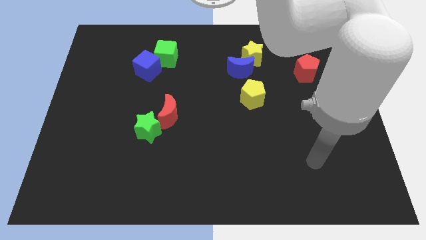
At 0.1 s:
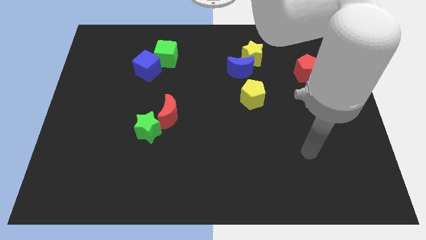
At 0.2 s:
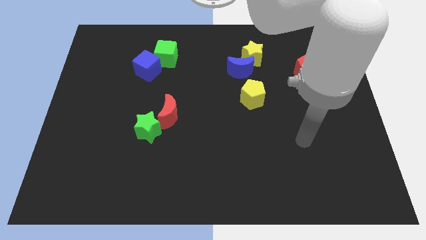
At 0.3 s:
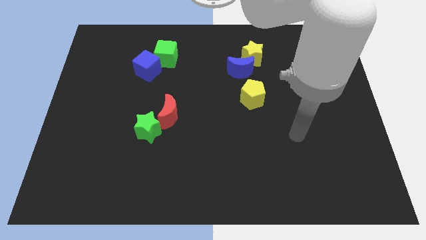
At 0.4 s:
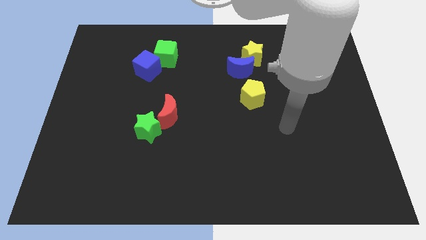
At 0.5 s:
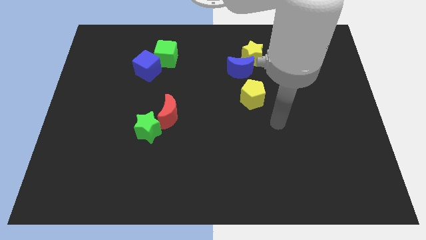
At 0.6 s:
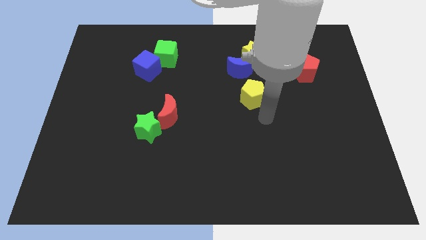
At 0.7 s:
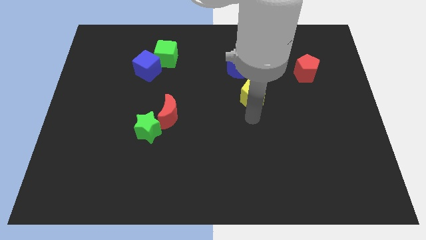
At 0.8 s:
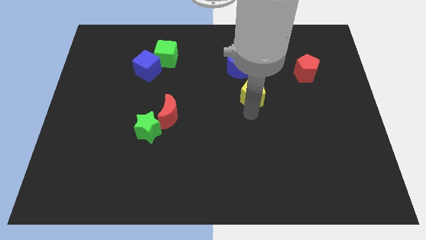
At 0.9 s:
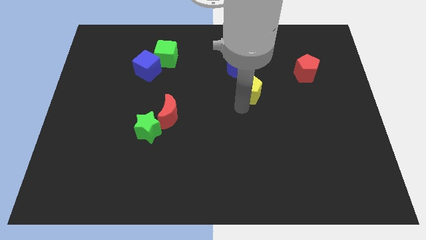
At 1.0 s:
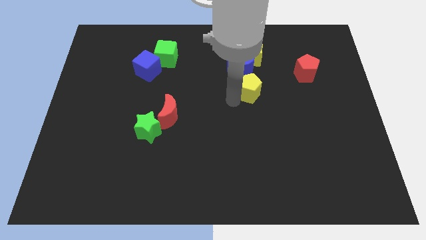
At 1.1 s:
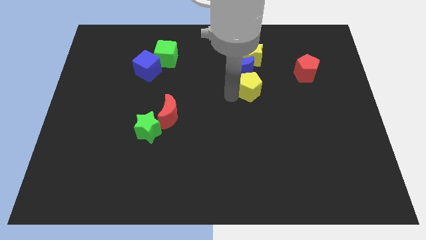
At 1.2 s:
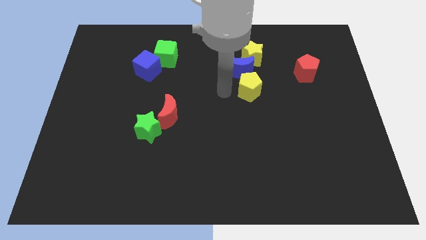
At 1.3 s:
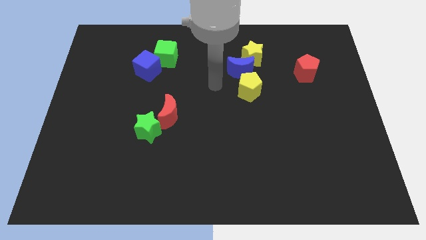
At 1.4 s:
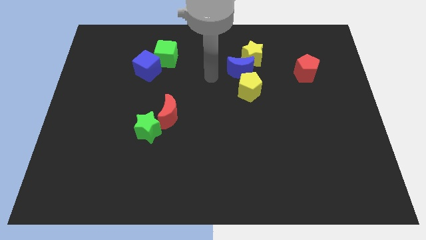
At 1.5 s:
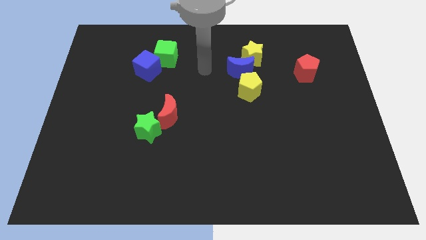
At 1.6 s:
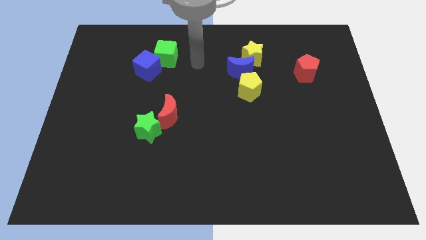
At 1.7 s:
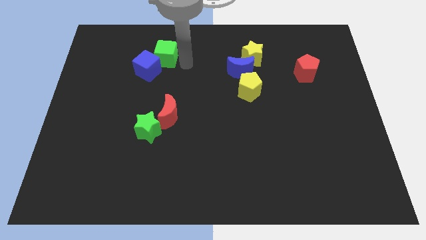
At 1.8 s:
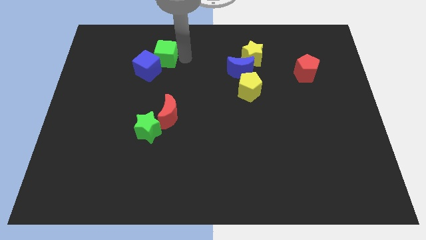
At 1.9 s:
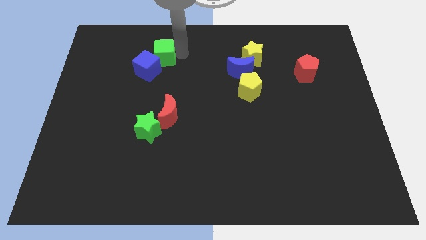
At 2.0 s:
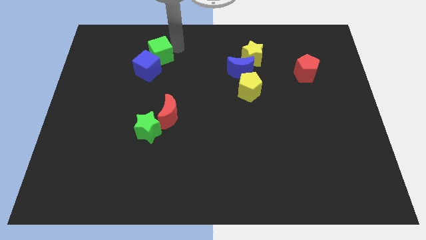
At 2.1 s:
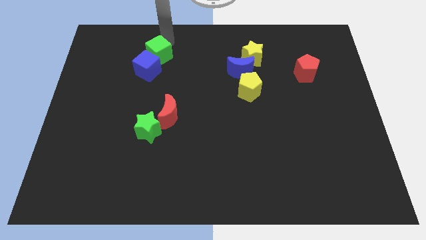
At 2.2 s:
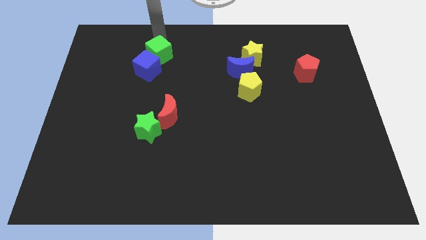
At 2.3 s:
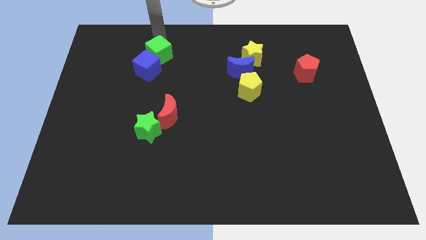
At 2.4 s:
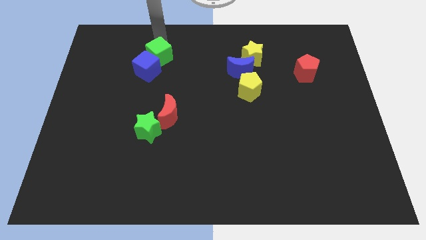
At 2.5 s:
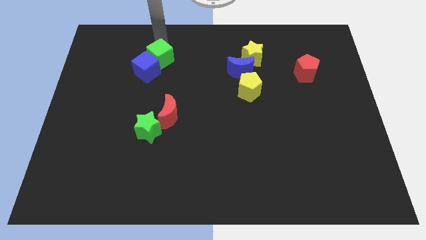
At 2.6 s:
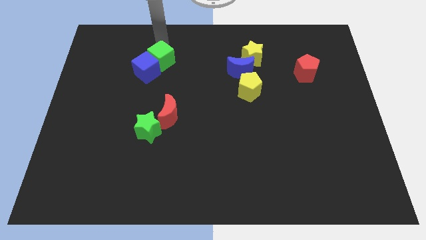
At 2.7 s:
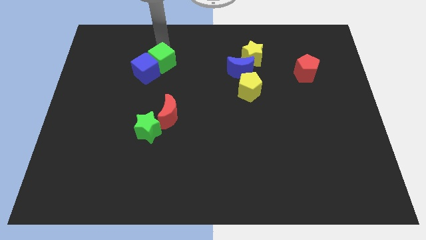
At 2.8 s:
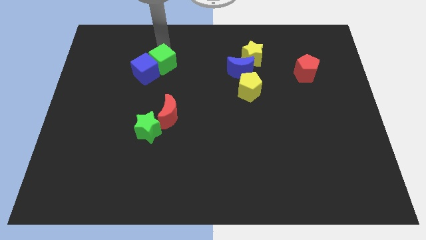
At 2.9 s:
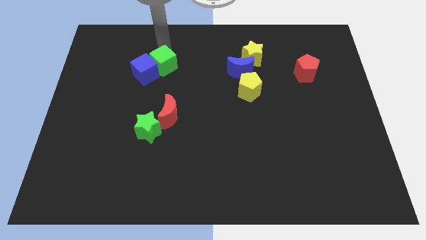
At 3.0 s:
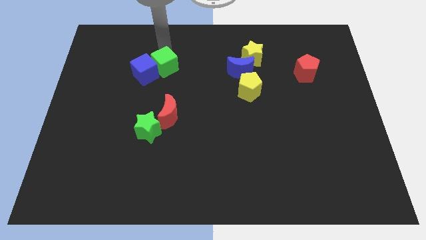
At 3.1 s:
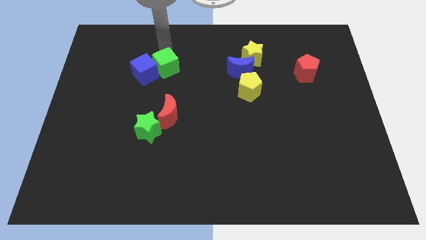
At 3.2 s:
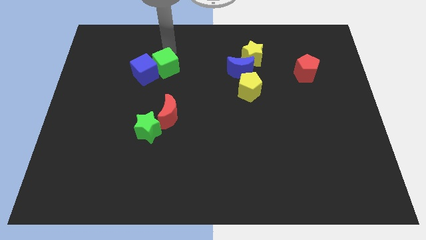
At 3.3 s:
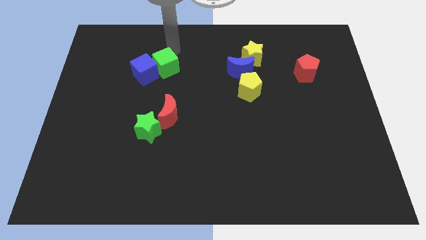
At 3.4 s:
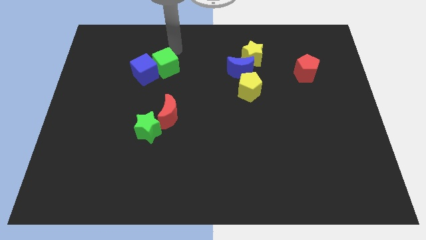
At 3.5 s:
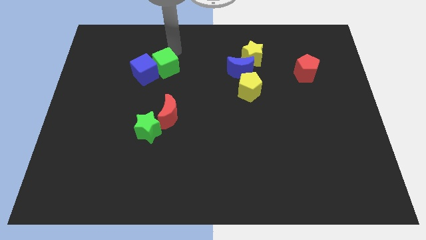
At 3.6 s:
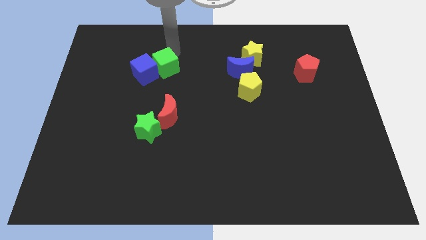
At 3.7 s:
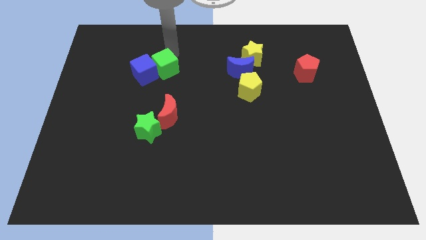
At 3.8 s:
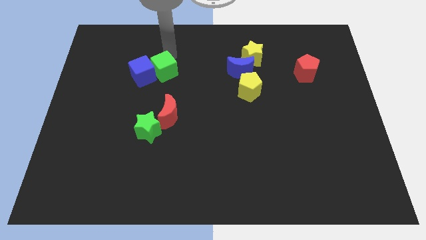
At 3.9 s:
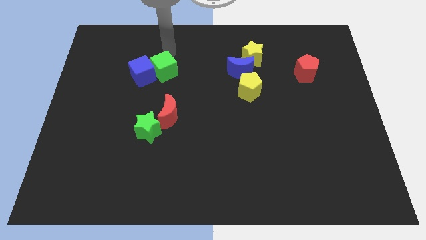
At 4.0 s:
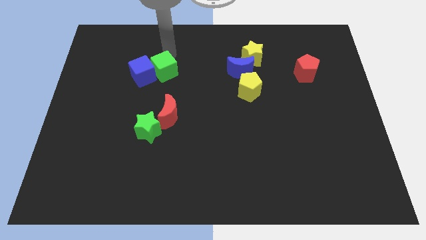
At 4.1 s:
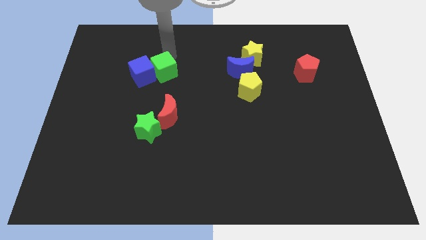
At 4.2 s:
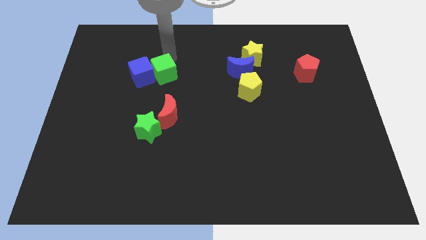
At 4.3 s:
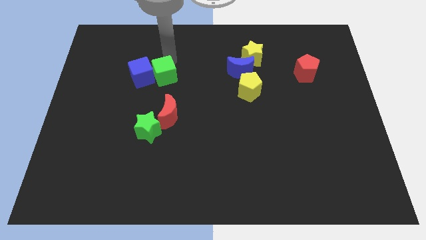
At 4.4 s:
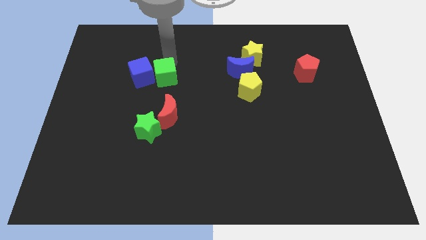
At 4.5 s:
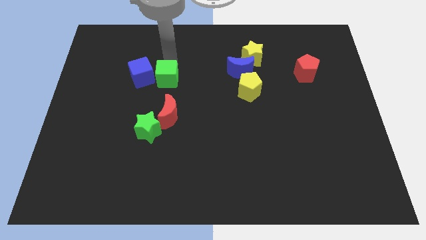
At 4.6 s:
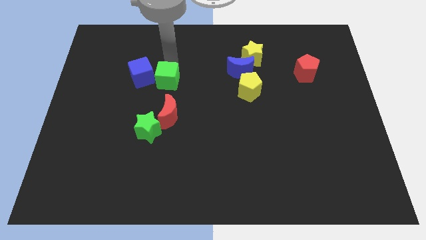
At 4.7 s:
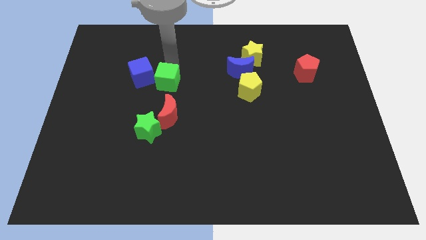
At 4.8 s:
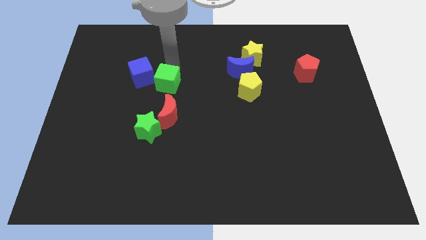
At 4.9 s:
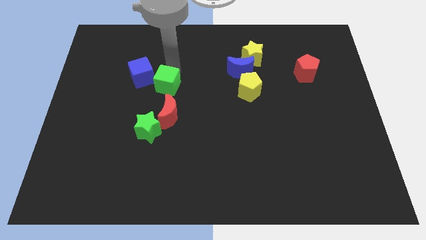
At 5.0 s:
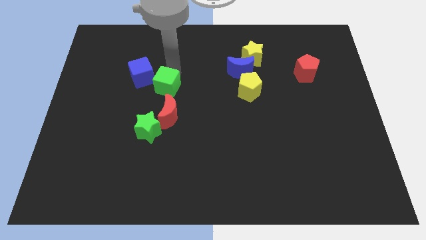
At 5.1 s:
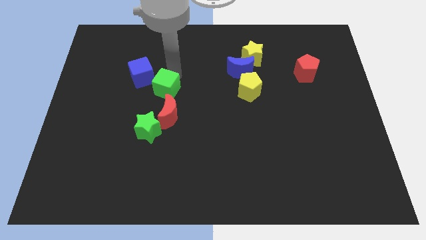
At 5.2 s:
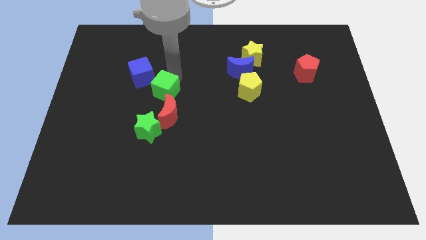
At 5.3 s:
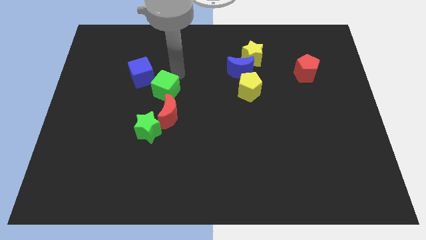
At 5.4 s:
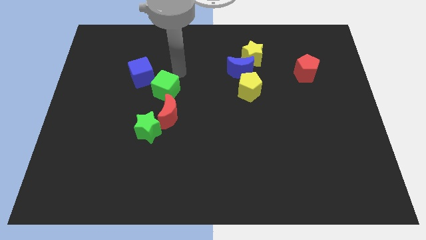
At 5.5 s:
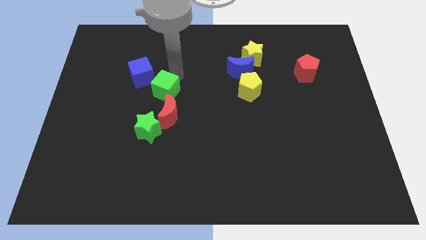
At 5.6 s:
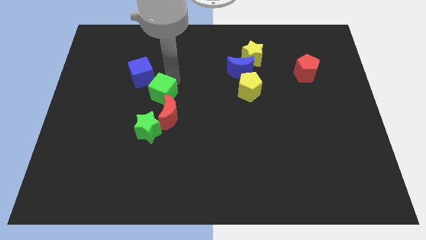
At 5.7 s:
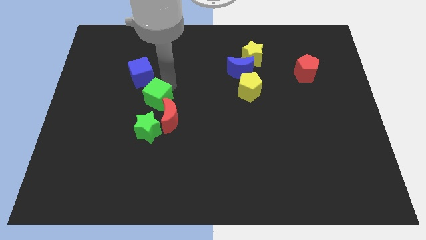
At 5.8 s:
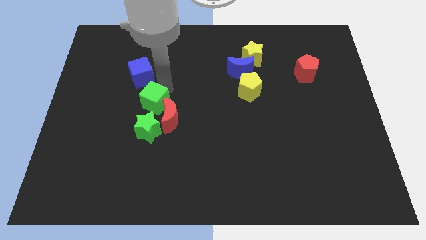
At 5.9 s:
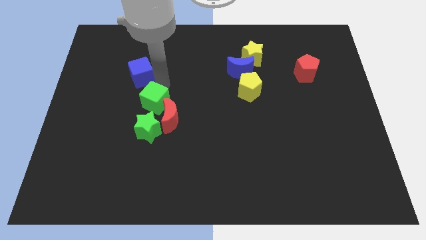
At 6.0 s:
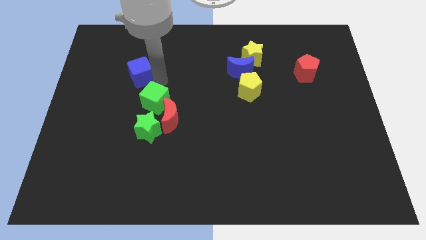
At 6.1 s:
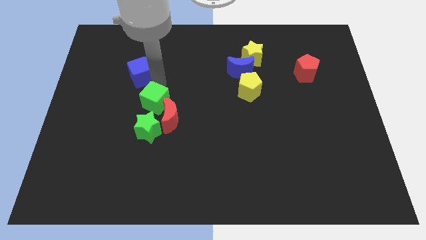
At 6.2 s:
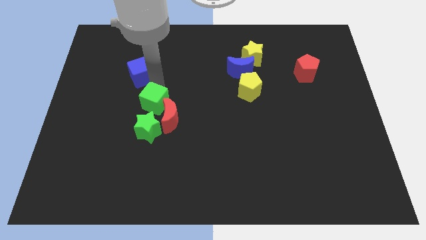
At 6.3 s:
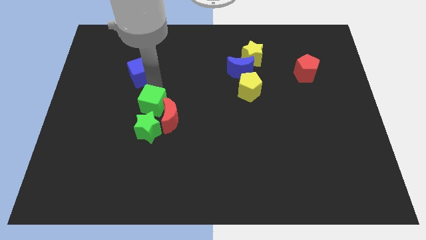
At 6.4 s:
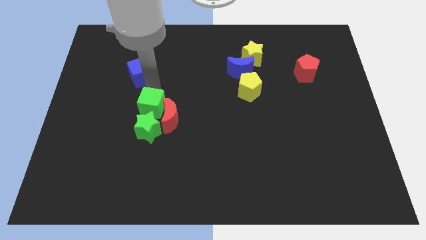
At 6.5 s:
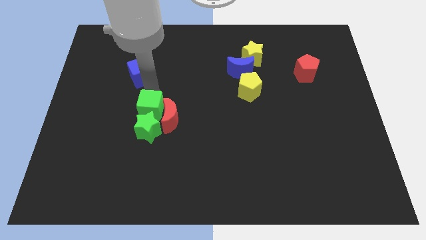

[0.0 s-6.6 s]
move the green cube towards the green star

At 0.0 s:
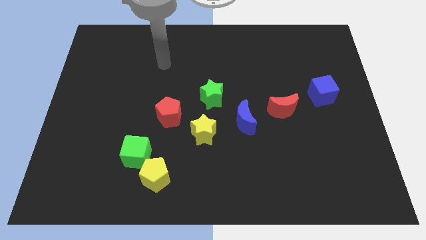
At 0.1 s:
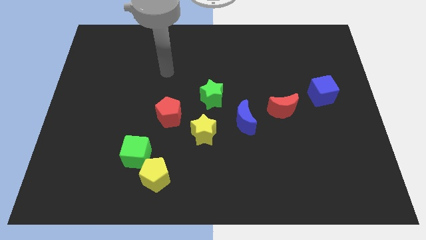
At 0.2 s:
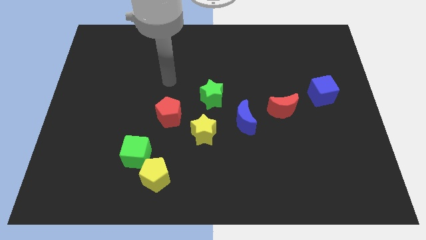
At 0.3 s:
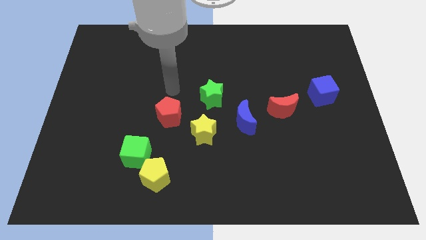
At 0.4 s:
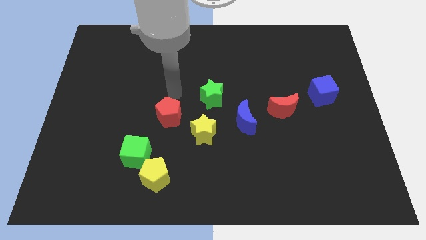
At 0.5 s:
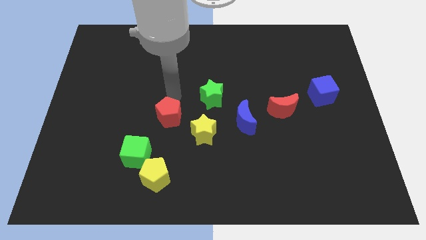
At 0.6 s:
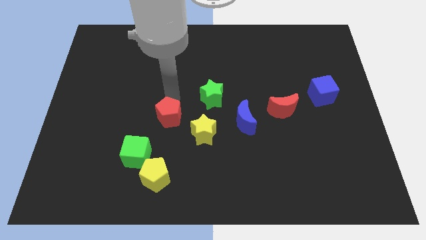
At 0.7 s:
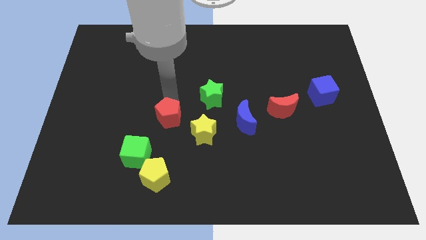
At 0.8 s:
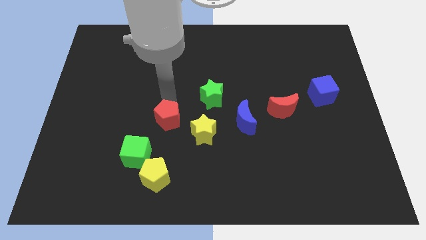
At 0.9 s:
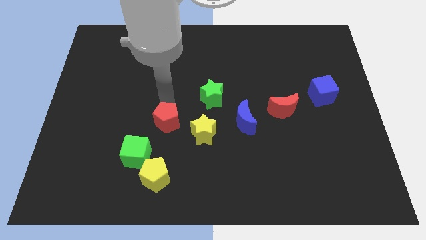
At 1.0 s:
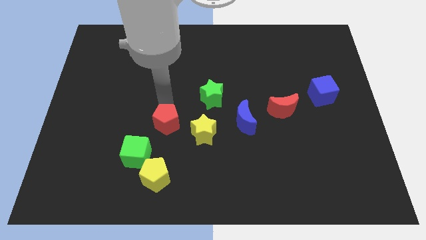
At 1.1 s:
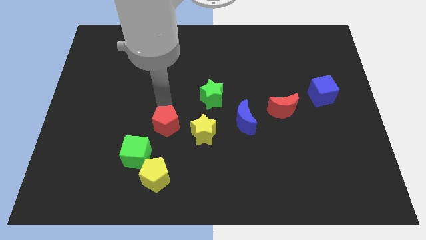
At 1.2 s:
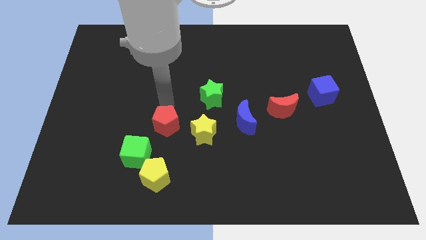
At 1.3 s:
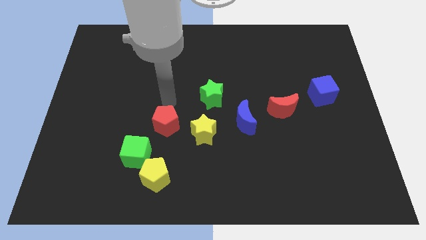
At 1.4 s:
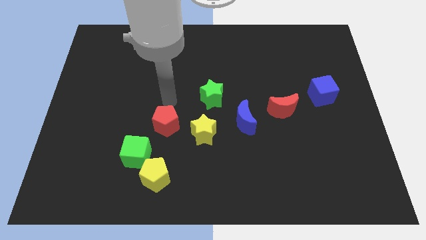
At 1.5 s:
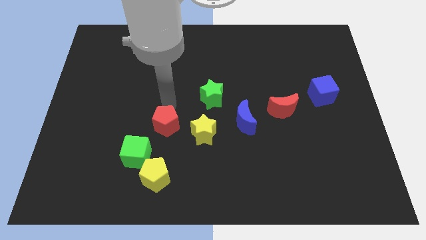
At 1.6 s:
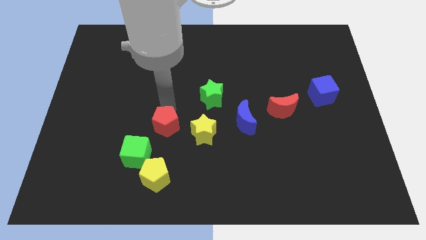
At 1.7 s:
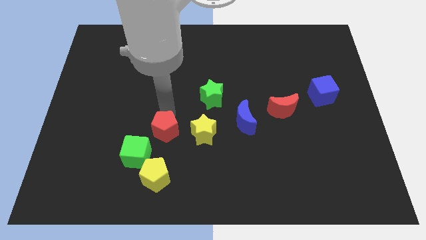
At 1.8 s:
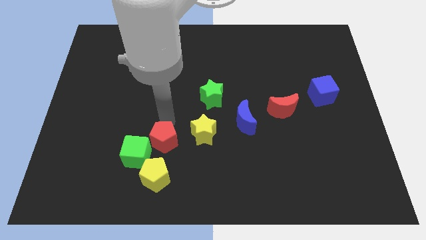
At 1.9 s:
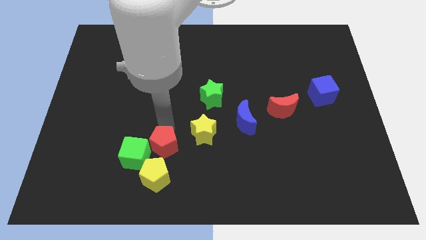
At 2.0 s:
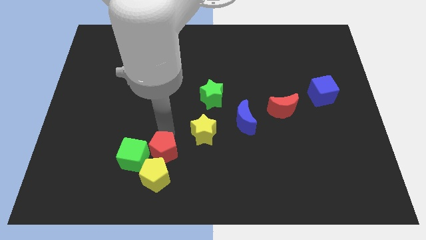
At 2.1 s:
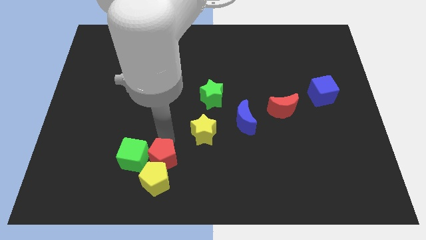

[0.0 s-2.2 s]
push the red pentagon next to the yellow pentagon
